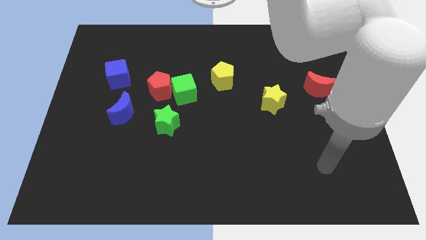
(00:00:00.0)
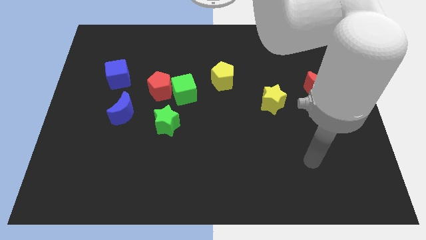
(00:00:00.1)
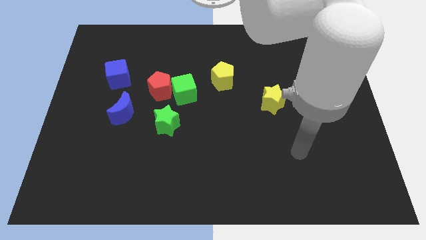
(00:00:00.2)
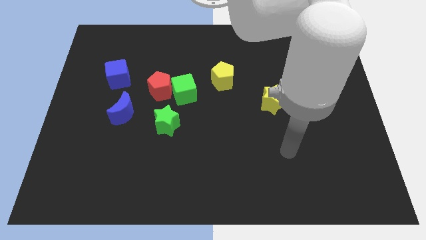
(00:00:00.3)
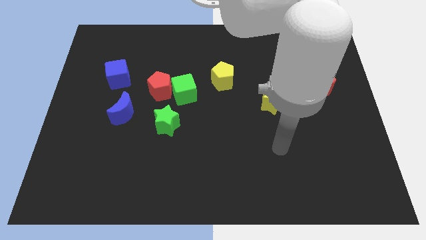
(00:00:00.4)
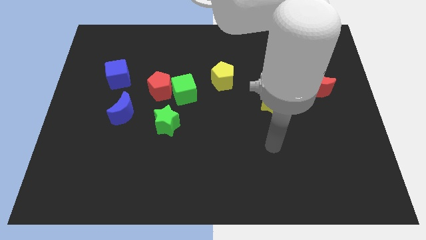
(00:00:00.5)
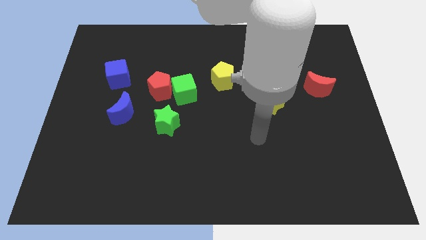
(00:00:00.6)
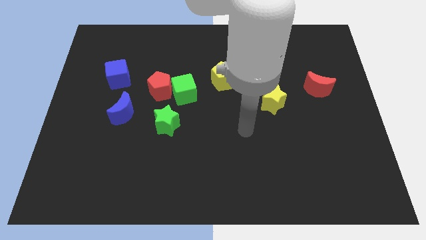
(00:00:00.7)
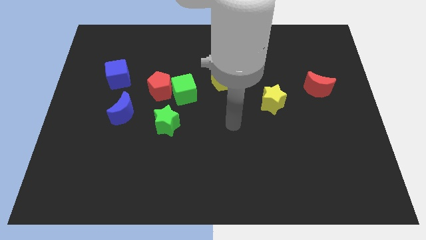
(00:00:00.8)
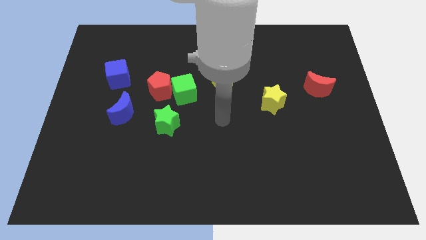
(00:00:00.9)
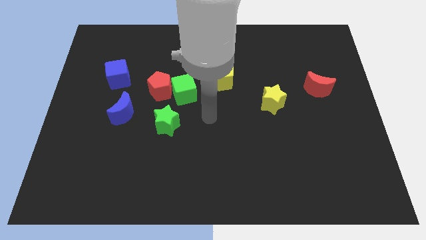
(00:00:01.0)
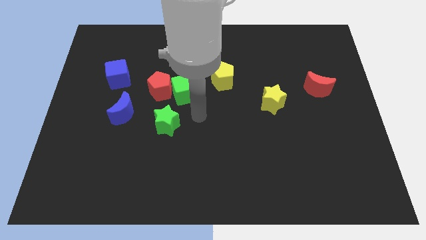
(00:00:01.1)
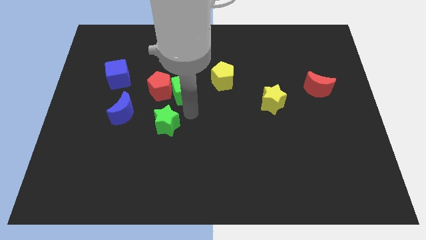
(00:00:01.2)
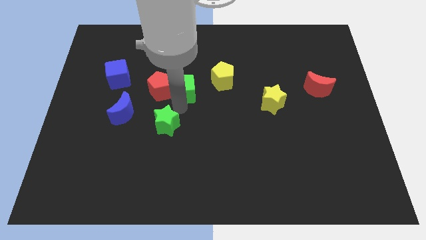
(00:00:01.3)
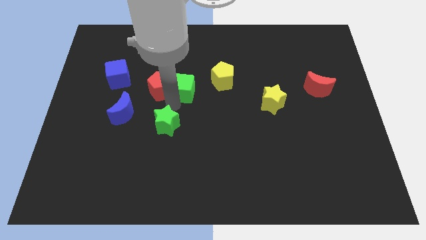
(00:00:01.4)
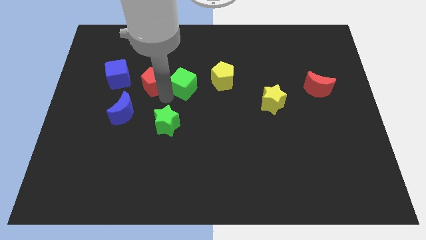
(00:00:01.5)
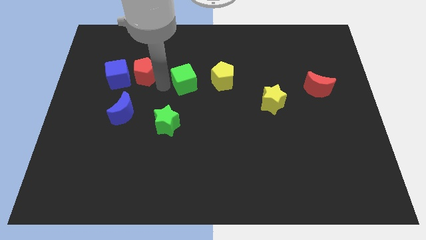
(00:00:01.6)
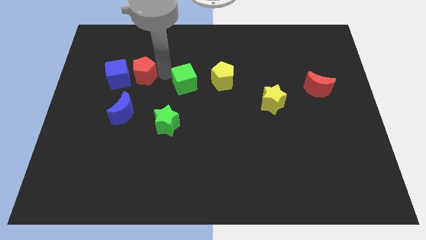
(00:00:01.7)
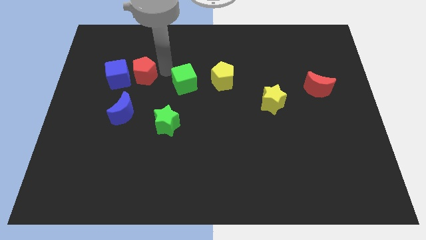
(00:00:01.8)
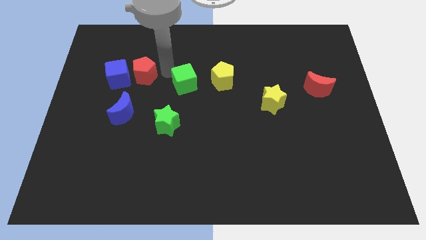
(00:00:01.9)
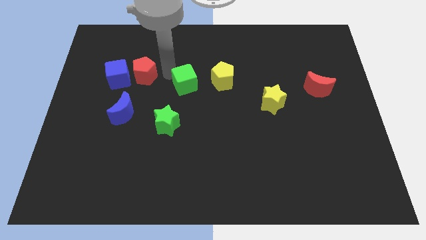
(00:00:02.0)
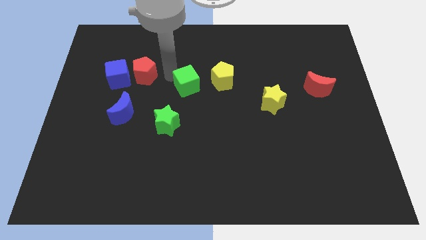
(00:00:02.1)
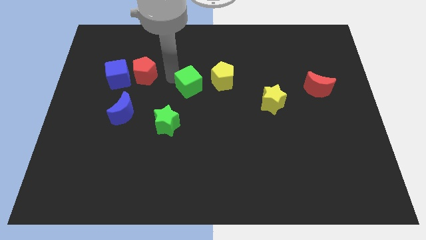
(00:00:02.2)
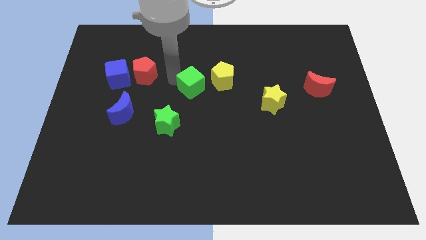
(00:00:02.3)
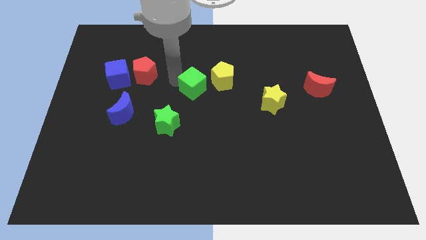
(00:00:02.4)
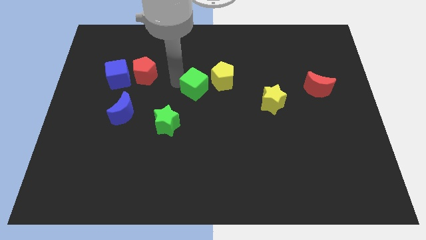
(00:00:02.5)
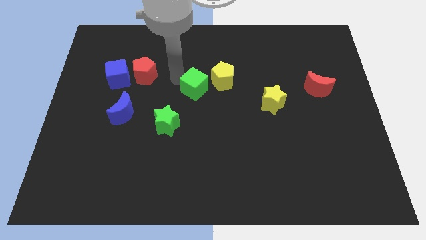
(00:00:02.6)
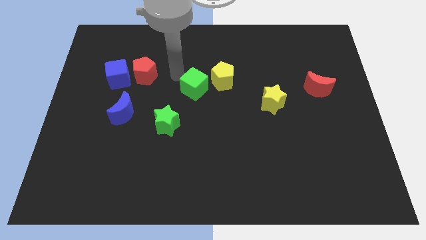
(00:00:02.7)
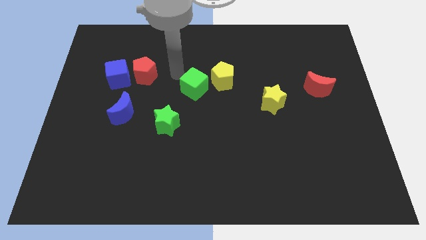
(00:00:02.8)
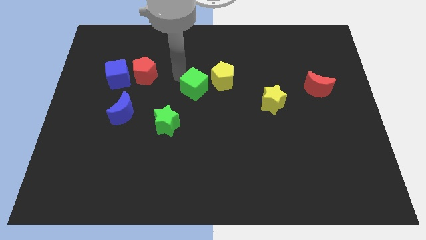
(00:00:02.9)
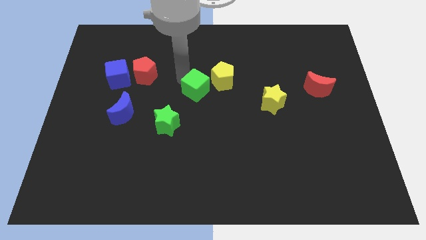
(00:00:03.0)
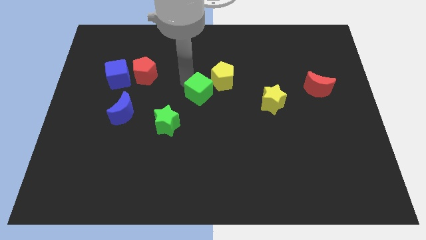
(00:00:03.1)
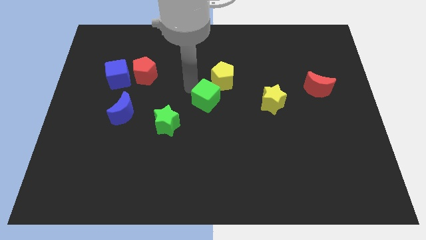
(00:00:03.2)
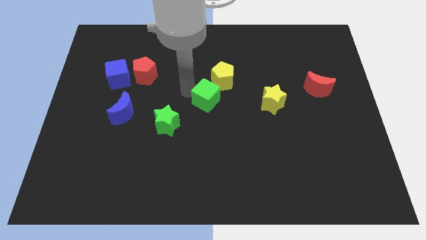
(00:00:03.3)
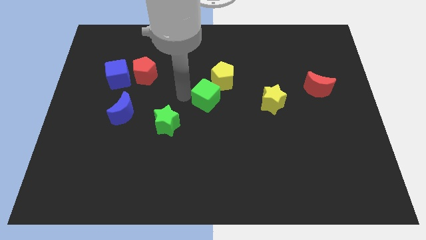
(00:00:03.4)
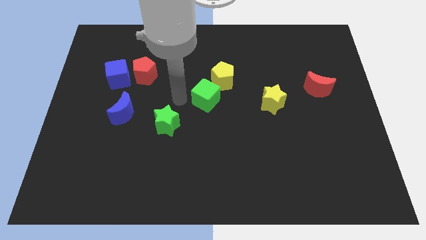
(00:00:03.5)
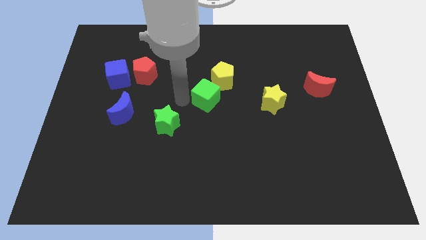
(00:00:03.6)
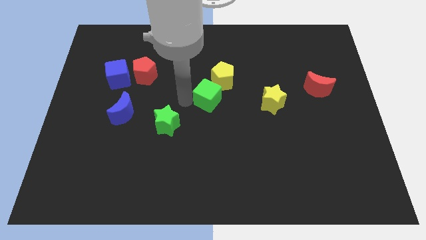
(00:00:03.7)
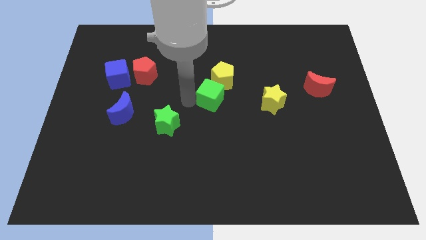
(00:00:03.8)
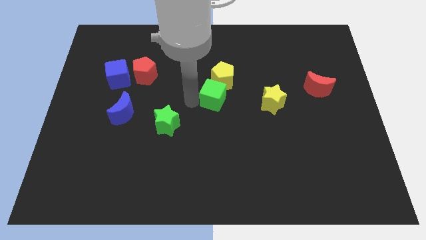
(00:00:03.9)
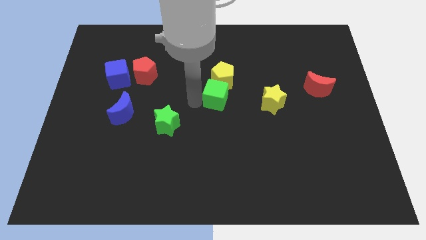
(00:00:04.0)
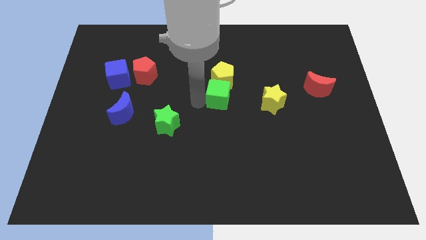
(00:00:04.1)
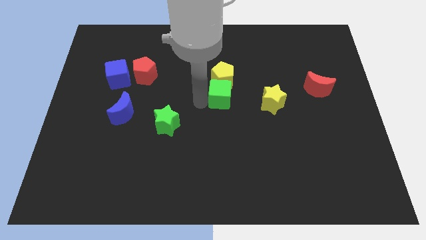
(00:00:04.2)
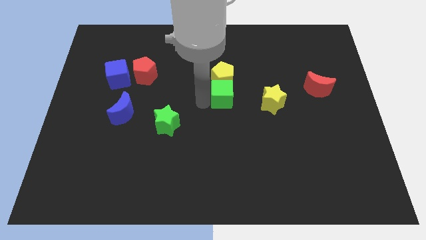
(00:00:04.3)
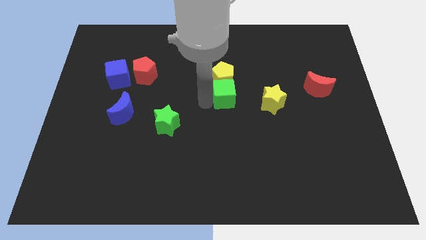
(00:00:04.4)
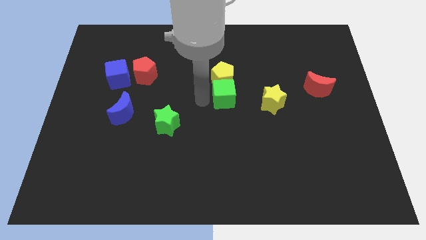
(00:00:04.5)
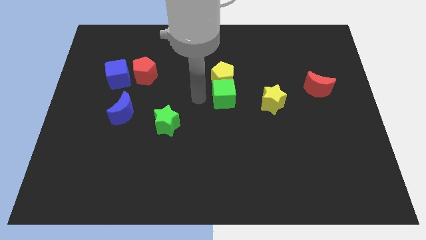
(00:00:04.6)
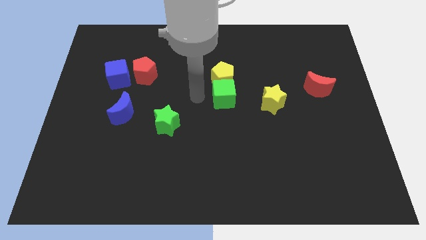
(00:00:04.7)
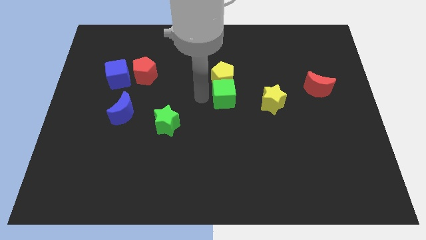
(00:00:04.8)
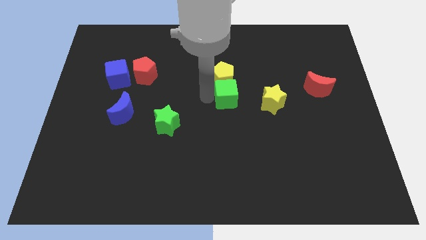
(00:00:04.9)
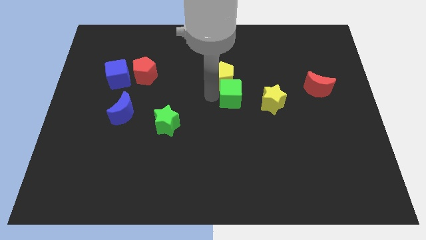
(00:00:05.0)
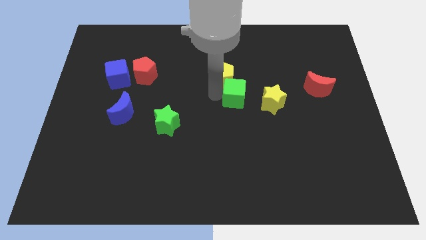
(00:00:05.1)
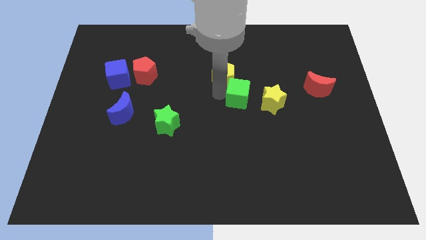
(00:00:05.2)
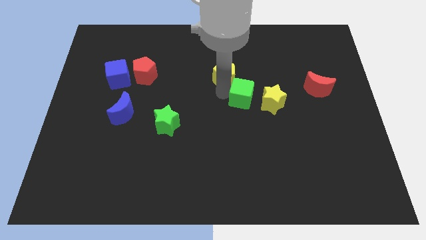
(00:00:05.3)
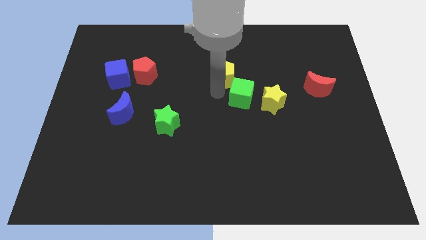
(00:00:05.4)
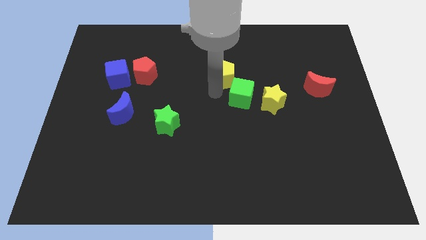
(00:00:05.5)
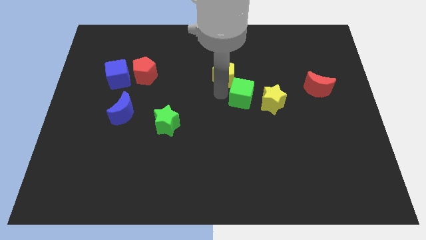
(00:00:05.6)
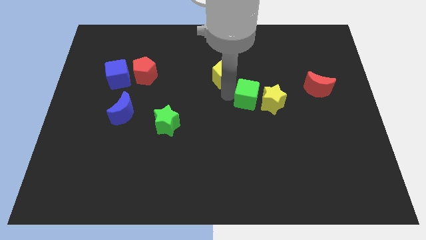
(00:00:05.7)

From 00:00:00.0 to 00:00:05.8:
move the green cube towards the yellow star

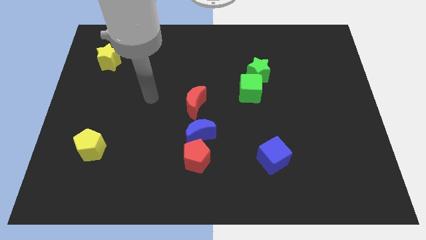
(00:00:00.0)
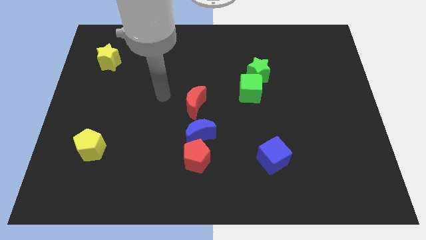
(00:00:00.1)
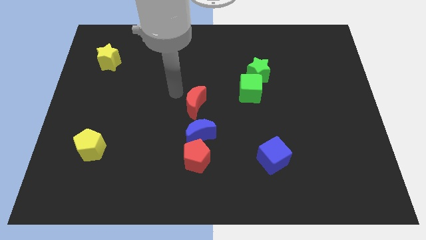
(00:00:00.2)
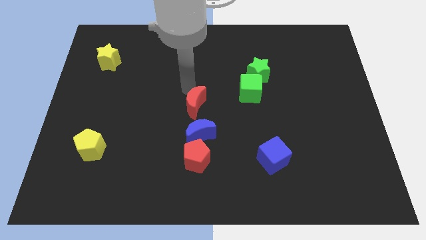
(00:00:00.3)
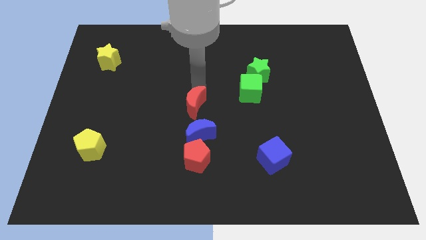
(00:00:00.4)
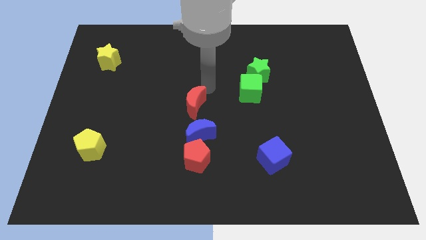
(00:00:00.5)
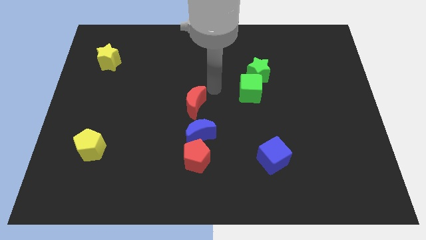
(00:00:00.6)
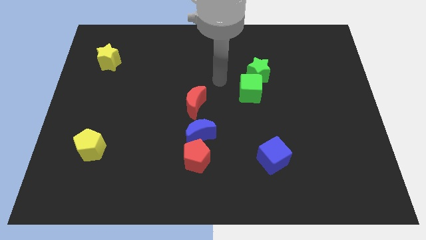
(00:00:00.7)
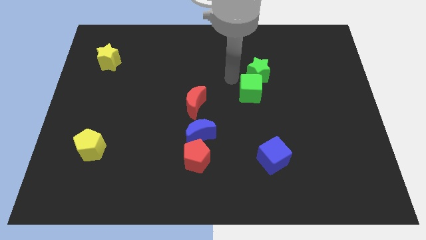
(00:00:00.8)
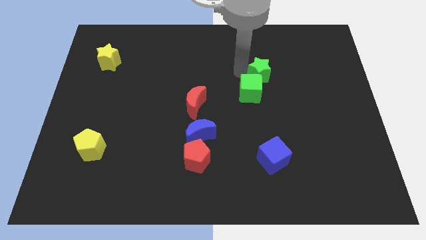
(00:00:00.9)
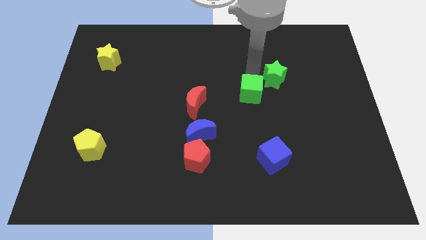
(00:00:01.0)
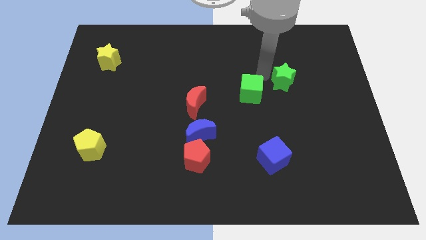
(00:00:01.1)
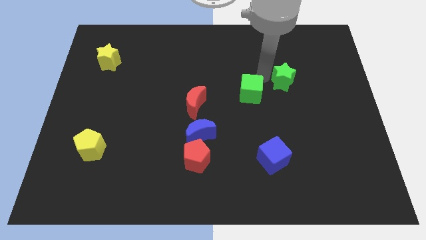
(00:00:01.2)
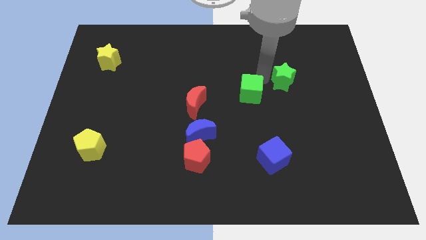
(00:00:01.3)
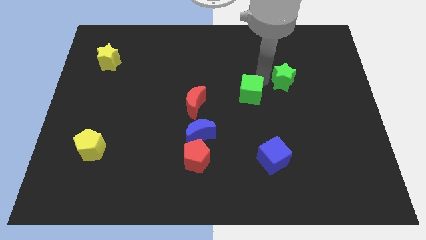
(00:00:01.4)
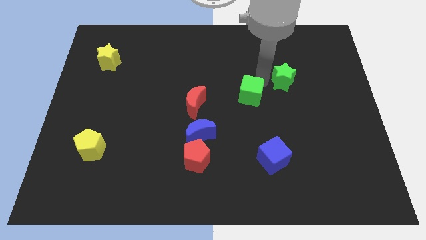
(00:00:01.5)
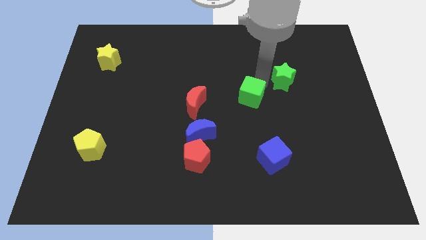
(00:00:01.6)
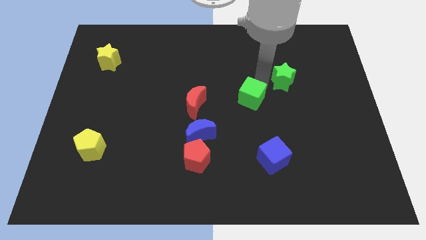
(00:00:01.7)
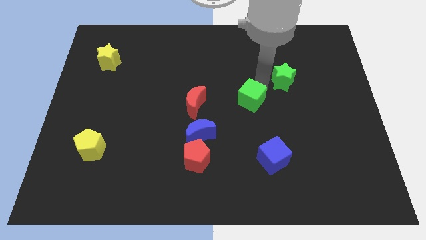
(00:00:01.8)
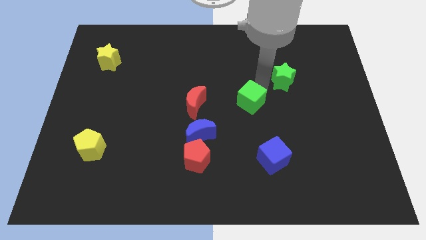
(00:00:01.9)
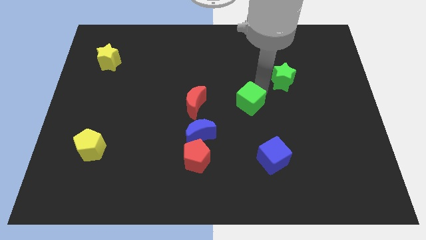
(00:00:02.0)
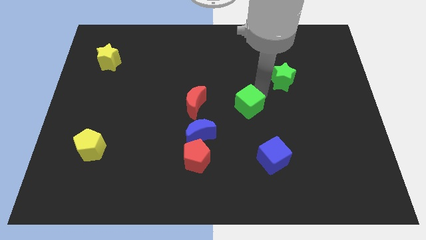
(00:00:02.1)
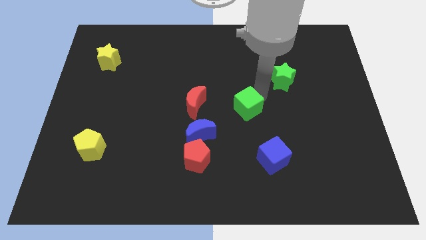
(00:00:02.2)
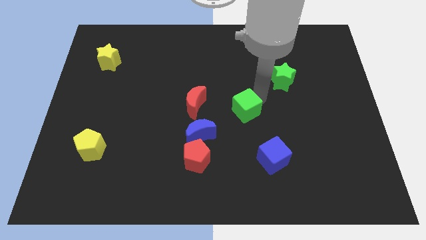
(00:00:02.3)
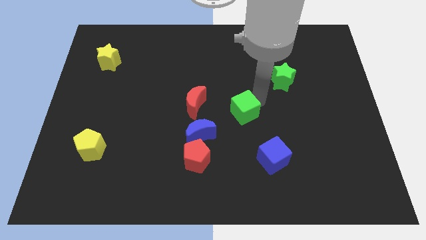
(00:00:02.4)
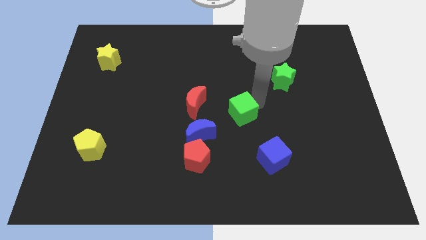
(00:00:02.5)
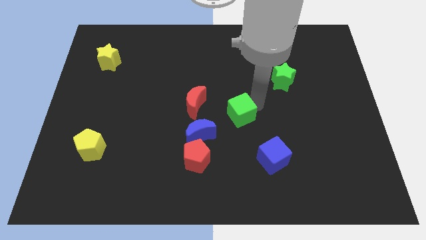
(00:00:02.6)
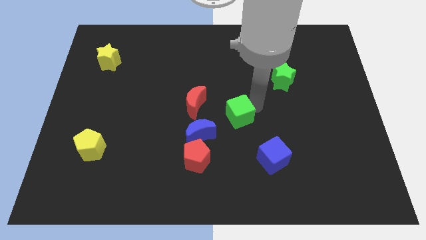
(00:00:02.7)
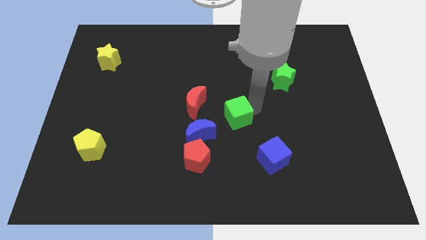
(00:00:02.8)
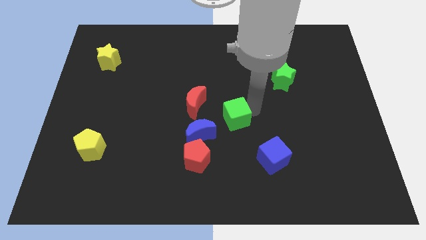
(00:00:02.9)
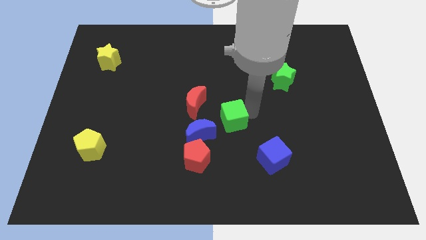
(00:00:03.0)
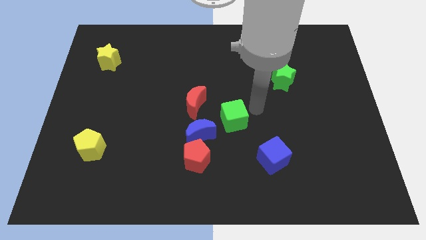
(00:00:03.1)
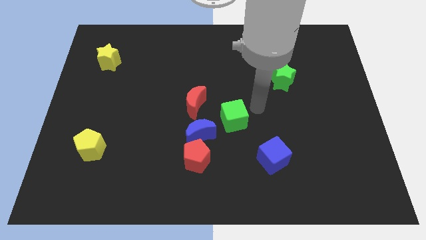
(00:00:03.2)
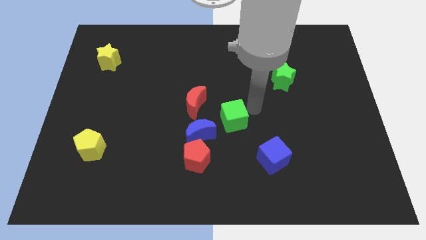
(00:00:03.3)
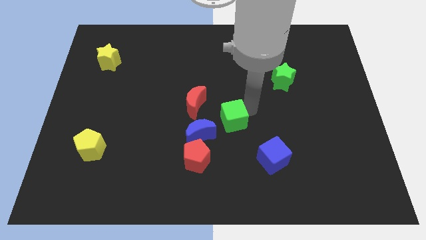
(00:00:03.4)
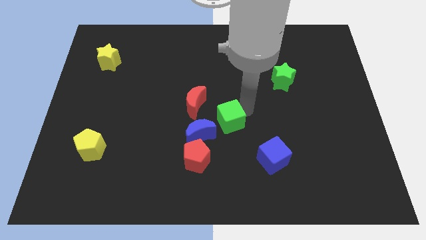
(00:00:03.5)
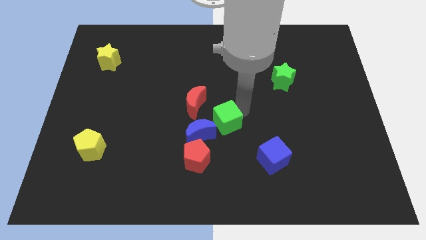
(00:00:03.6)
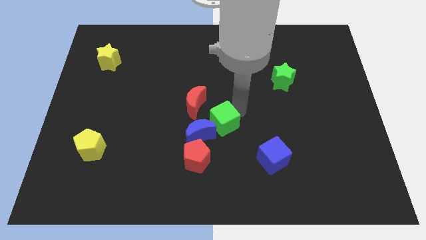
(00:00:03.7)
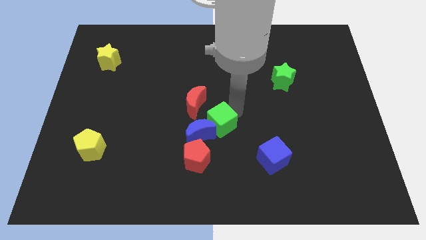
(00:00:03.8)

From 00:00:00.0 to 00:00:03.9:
slide the green cube to the blue moon
